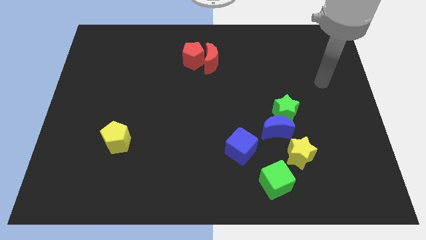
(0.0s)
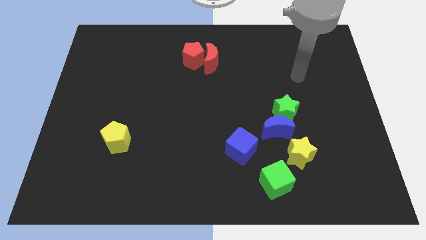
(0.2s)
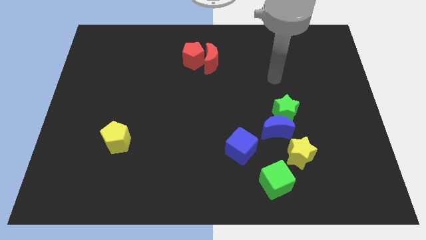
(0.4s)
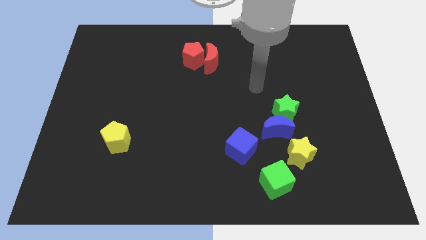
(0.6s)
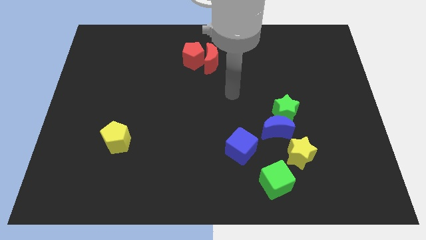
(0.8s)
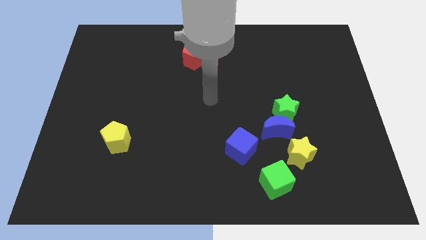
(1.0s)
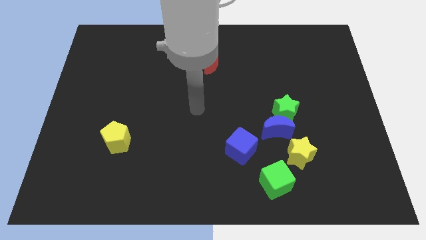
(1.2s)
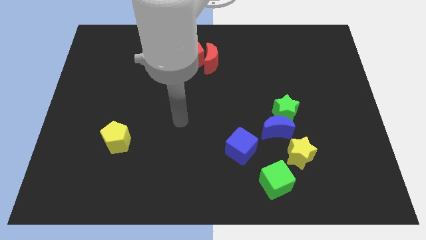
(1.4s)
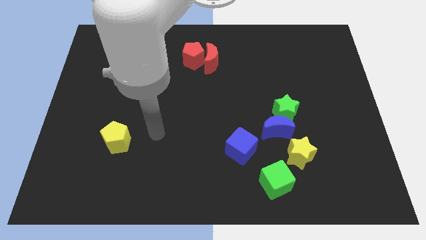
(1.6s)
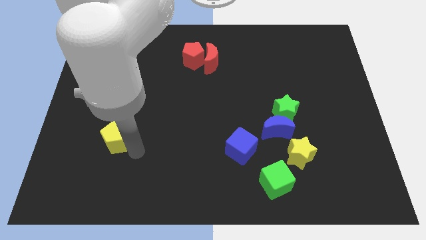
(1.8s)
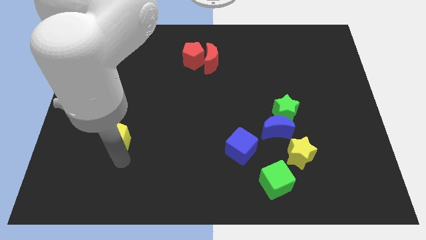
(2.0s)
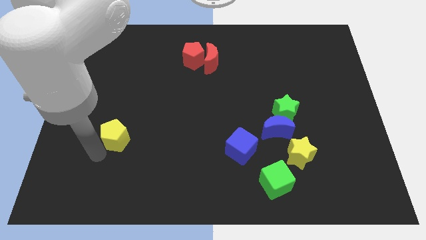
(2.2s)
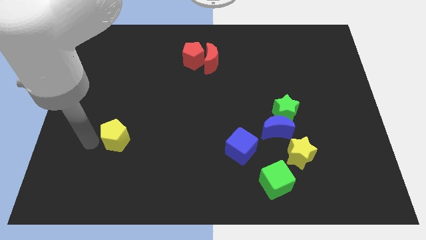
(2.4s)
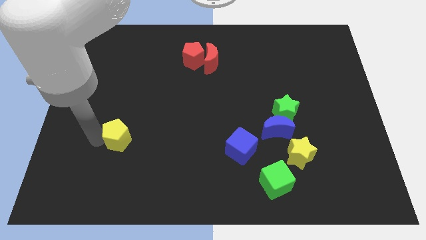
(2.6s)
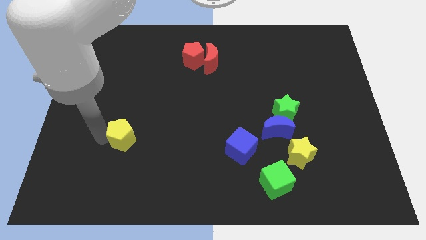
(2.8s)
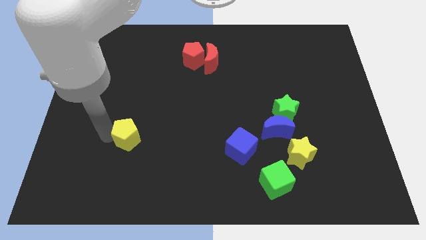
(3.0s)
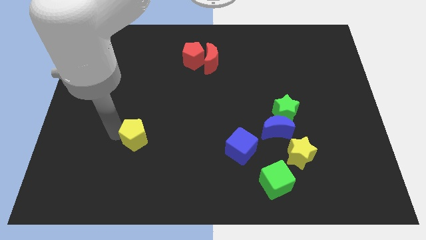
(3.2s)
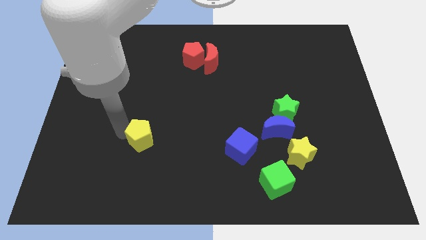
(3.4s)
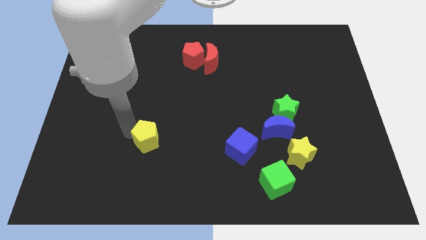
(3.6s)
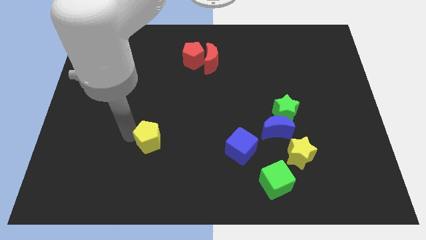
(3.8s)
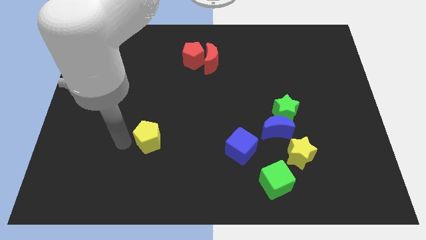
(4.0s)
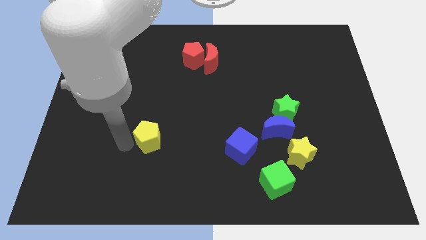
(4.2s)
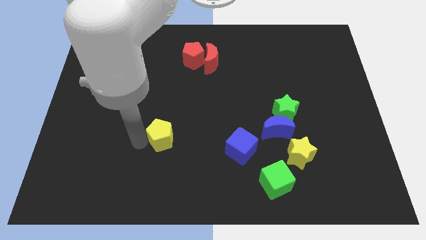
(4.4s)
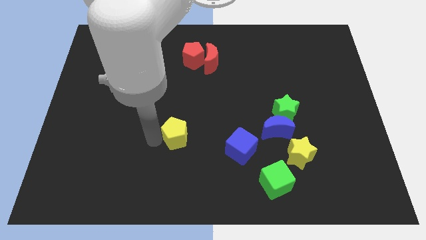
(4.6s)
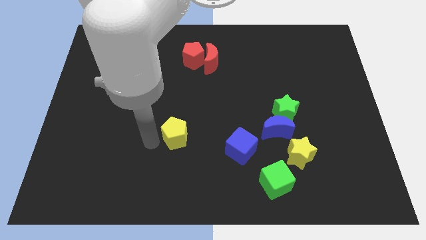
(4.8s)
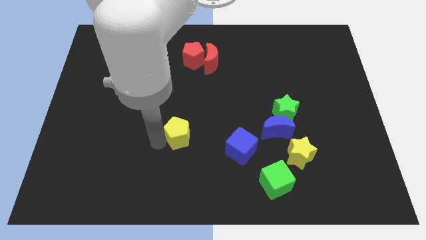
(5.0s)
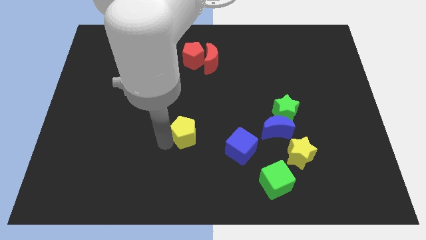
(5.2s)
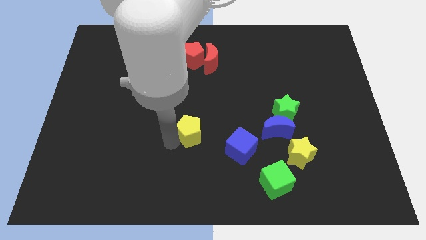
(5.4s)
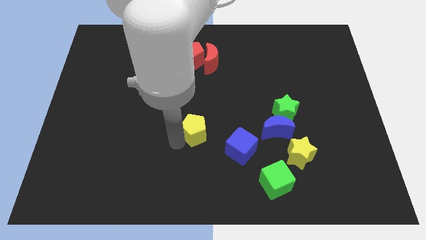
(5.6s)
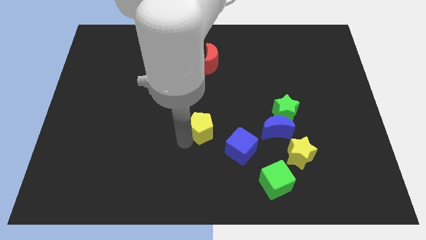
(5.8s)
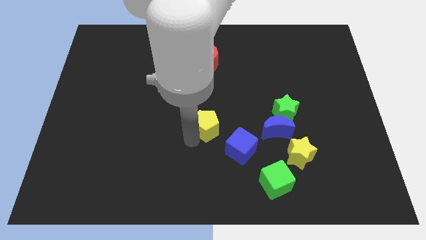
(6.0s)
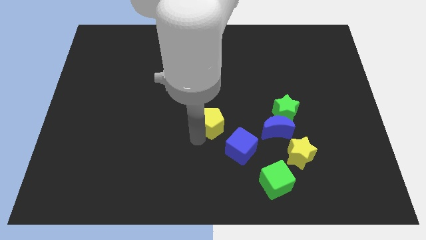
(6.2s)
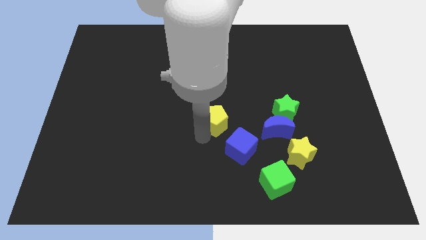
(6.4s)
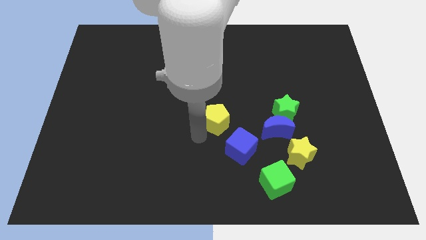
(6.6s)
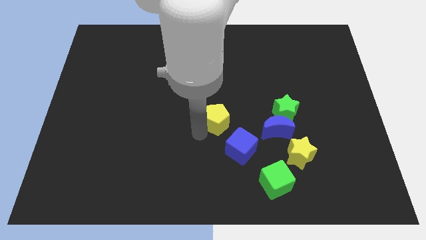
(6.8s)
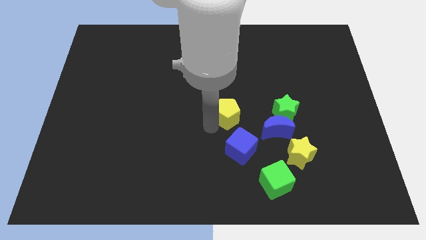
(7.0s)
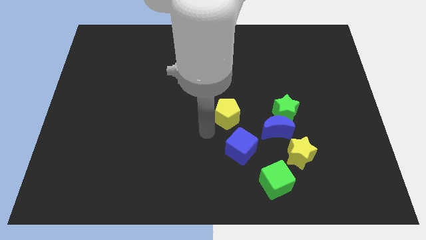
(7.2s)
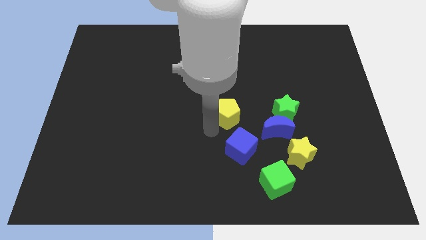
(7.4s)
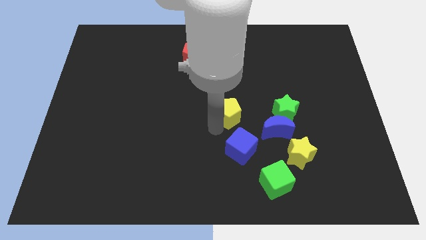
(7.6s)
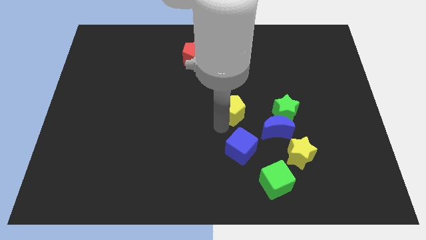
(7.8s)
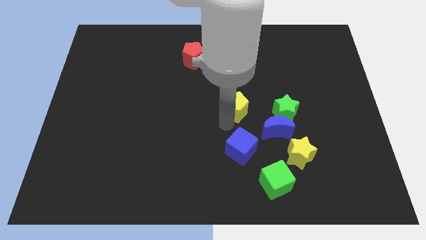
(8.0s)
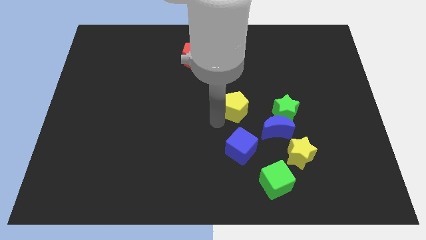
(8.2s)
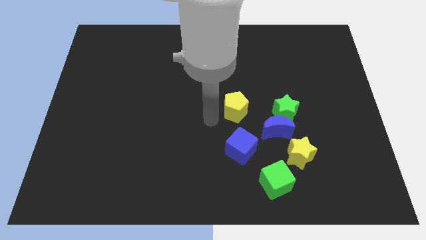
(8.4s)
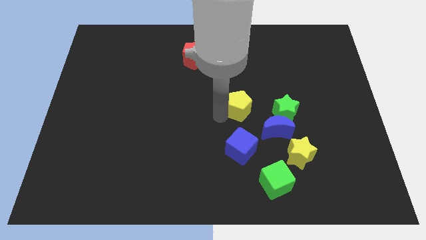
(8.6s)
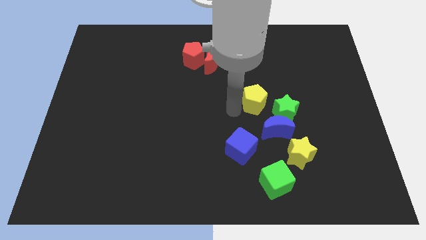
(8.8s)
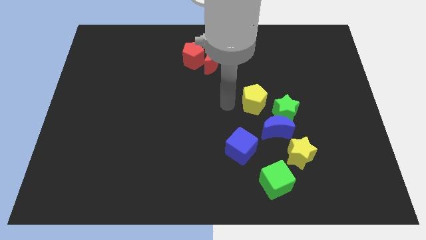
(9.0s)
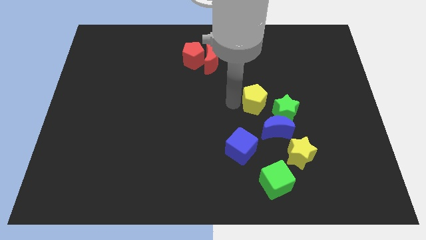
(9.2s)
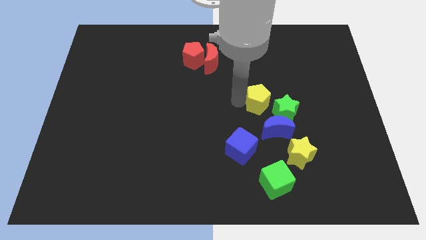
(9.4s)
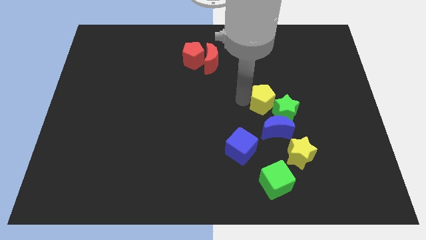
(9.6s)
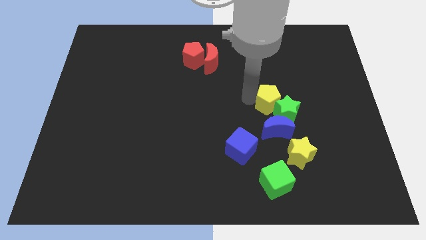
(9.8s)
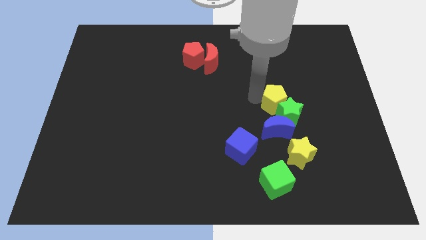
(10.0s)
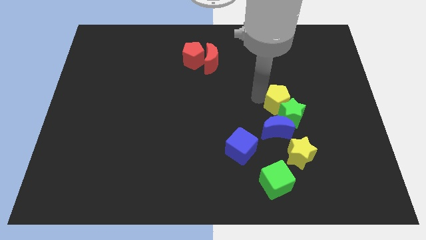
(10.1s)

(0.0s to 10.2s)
move the yellow pentagon diagonally up and to the right of the blue moon

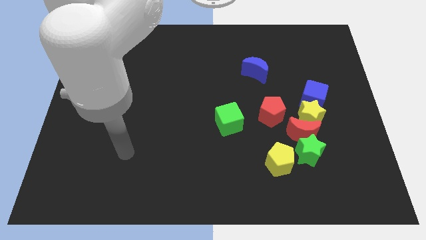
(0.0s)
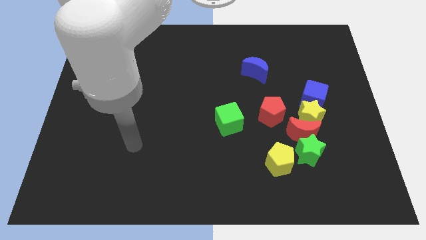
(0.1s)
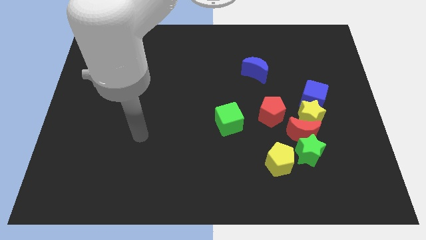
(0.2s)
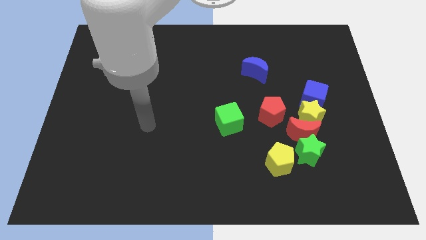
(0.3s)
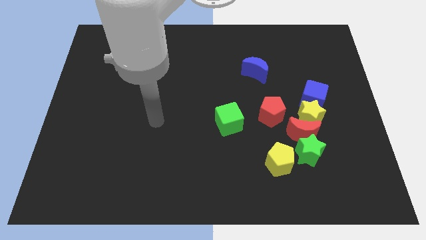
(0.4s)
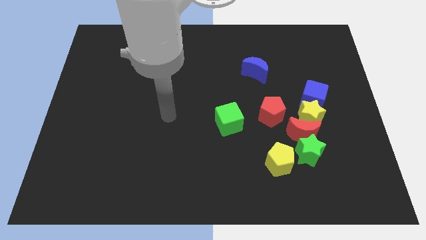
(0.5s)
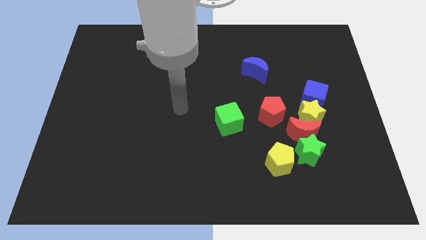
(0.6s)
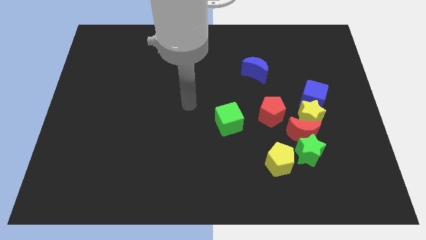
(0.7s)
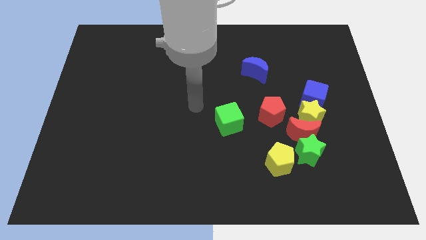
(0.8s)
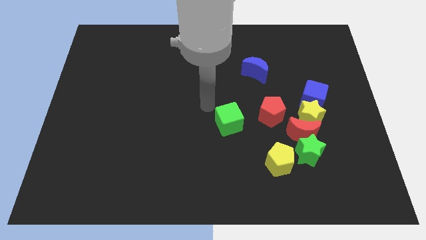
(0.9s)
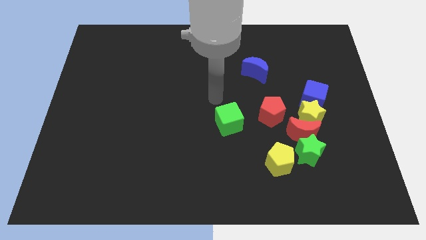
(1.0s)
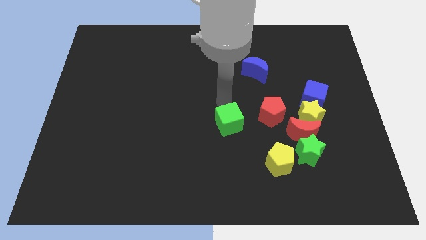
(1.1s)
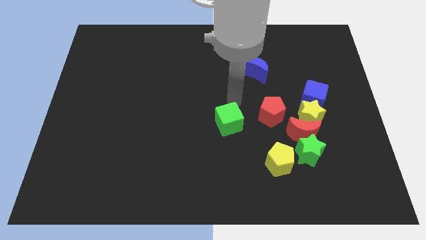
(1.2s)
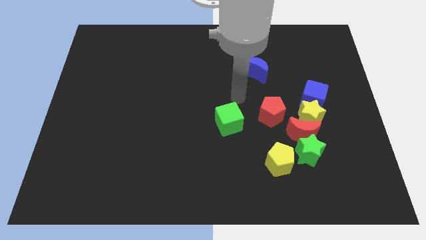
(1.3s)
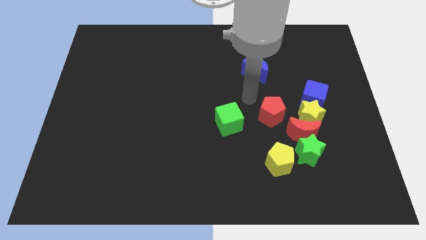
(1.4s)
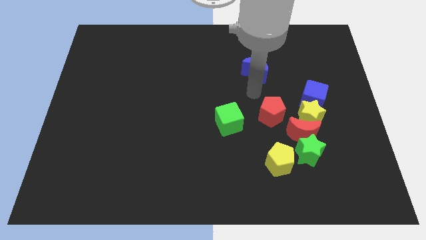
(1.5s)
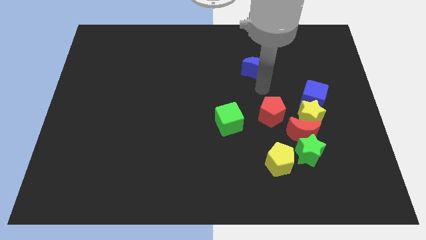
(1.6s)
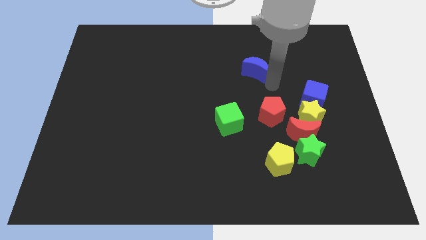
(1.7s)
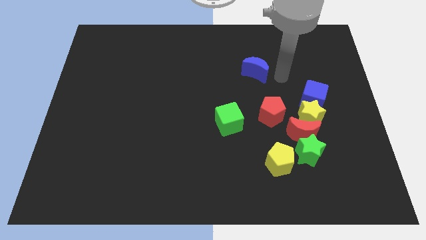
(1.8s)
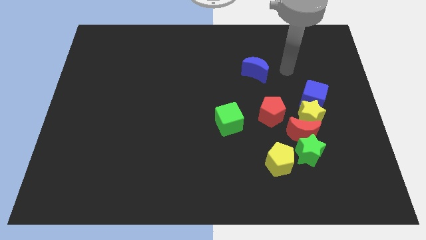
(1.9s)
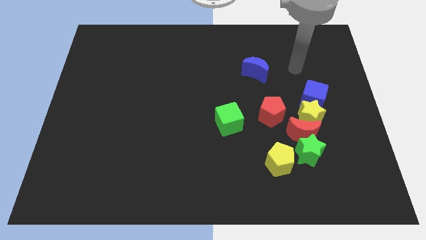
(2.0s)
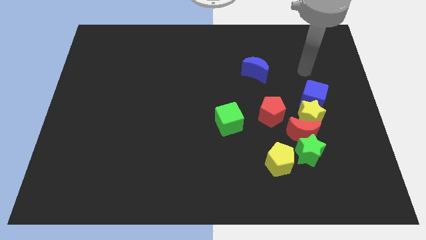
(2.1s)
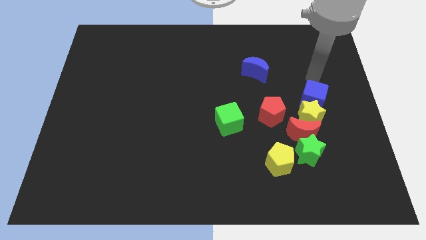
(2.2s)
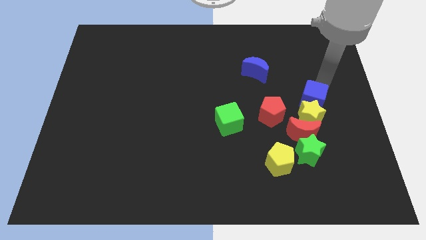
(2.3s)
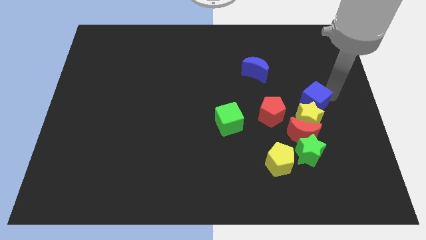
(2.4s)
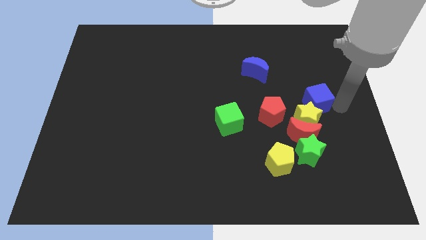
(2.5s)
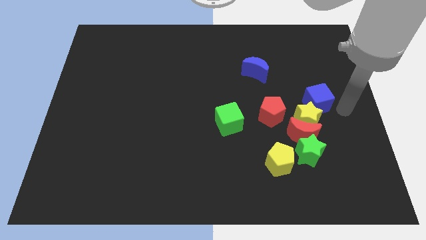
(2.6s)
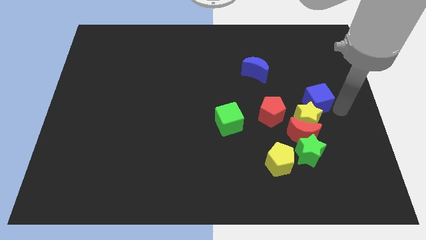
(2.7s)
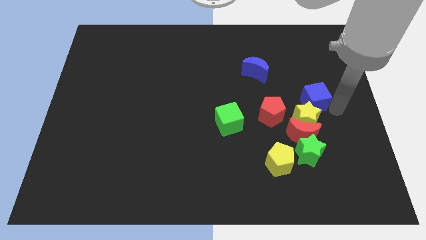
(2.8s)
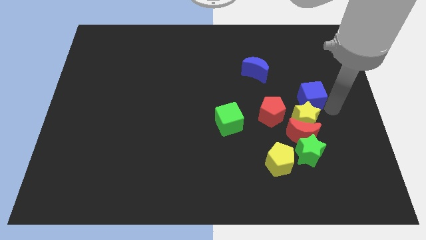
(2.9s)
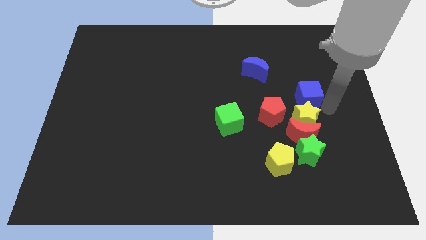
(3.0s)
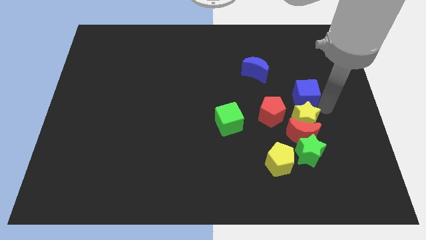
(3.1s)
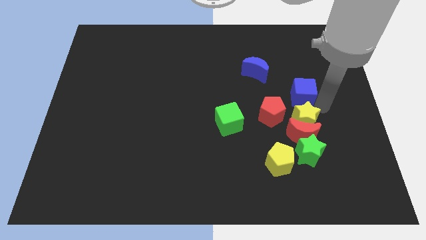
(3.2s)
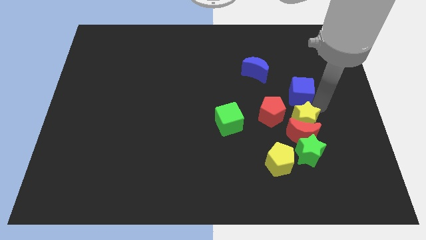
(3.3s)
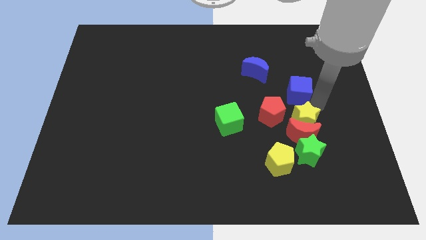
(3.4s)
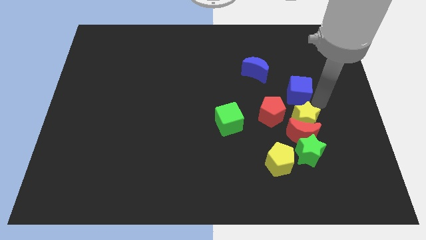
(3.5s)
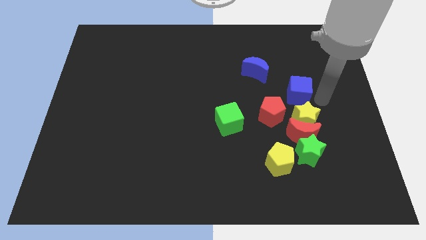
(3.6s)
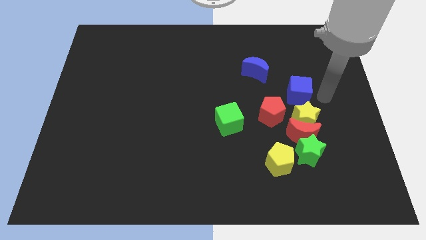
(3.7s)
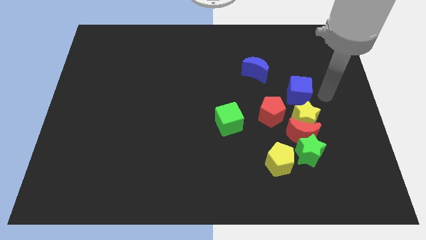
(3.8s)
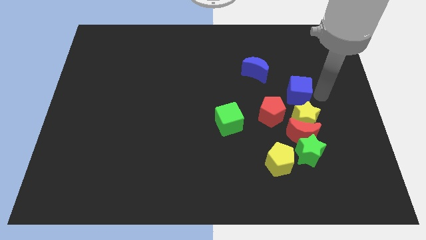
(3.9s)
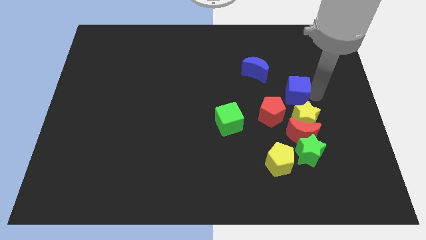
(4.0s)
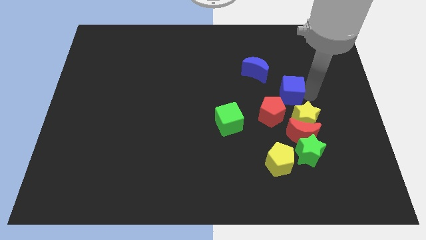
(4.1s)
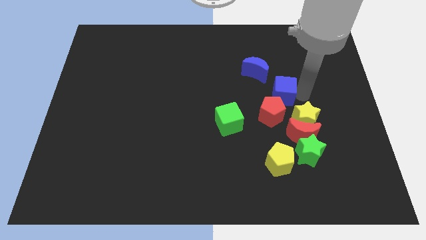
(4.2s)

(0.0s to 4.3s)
push the blue cube above the red pentagon
